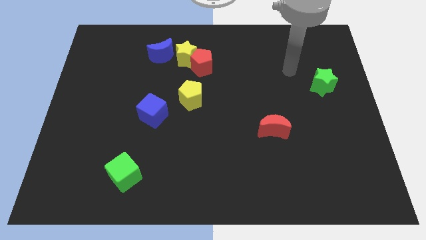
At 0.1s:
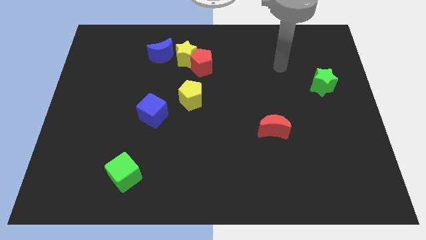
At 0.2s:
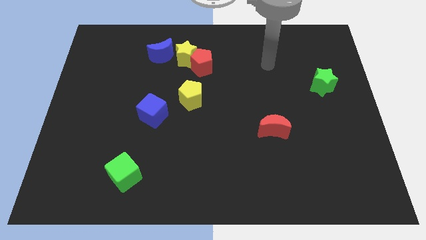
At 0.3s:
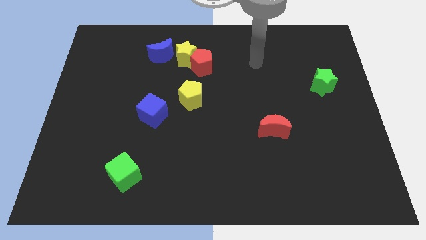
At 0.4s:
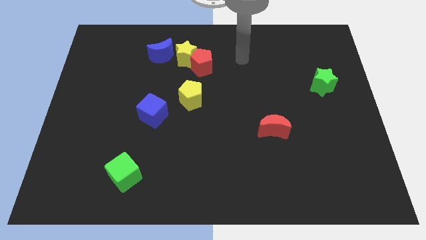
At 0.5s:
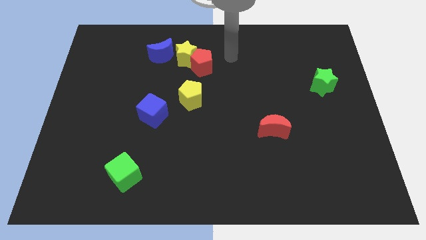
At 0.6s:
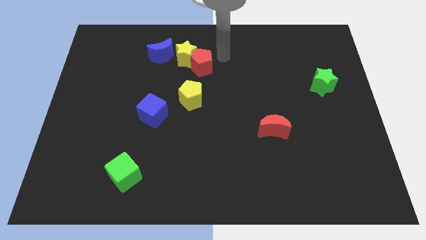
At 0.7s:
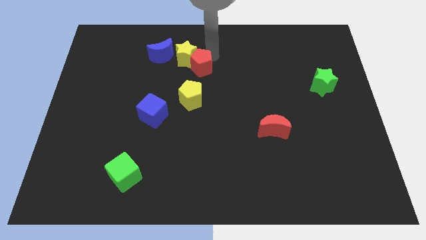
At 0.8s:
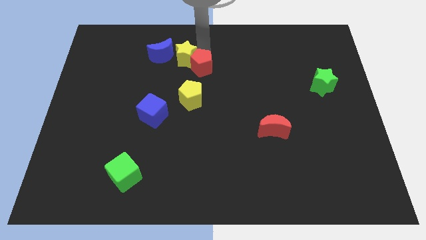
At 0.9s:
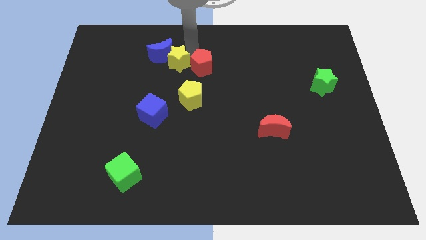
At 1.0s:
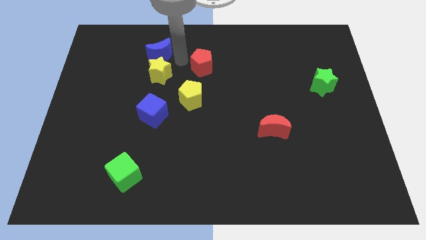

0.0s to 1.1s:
separate the red pentagon from the yellow star

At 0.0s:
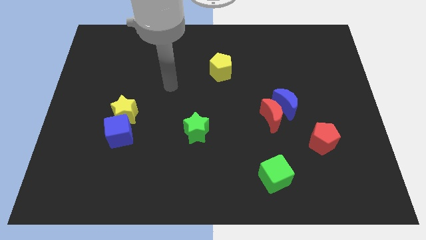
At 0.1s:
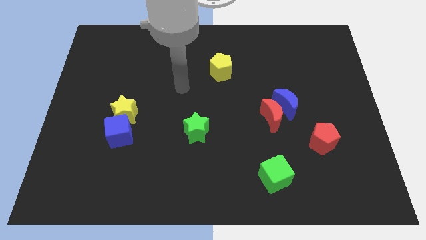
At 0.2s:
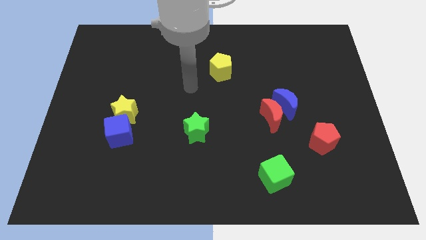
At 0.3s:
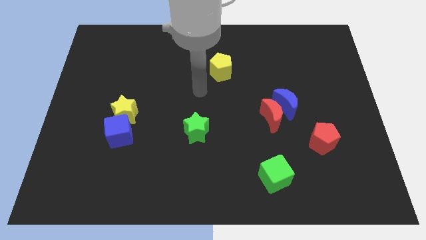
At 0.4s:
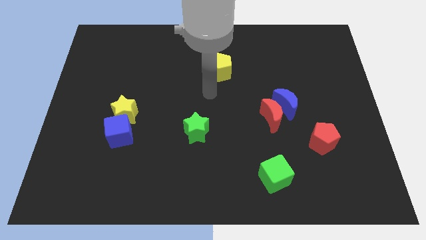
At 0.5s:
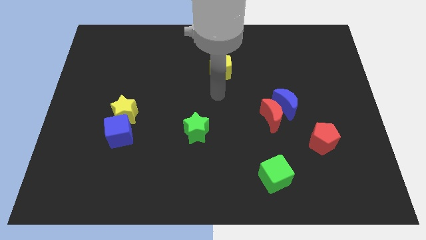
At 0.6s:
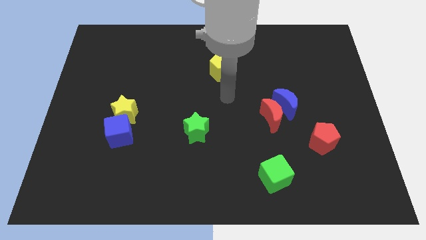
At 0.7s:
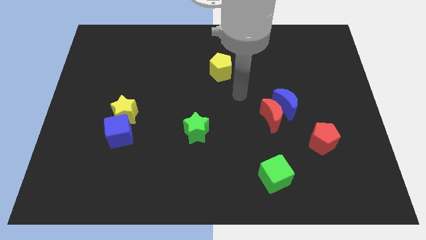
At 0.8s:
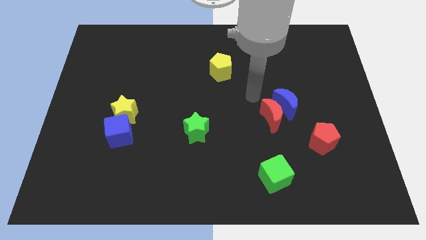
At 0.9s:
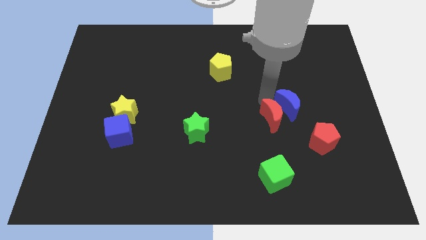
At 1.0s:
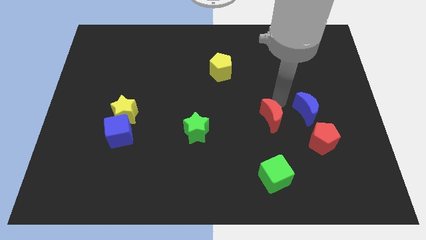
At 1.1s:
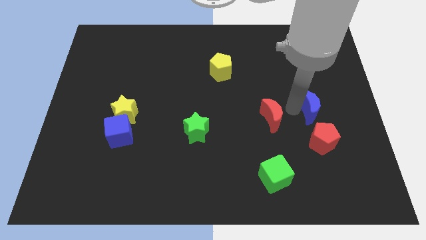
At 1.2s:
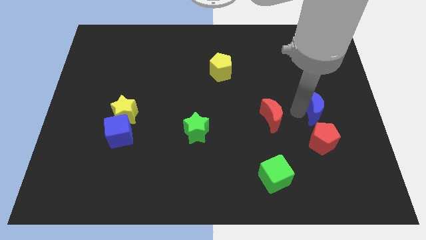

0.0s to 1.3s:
pull the red moon apart from the blue moon

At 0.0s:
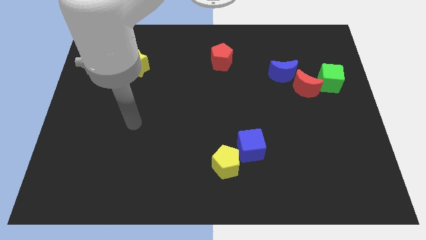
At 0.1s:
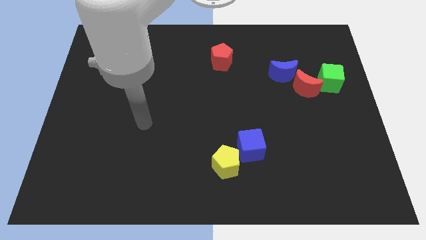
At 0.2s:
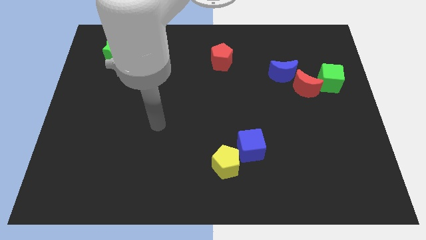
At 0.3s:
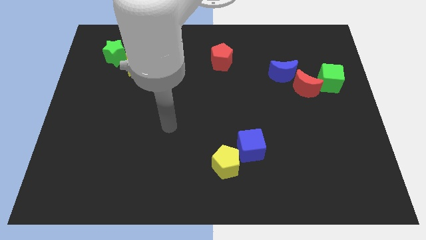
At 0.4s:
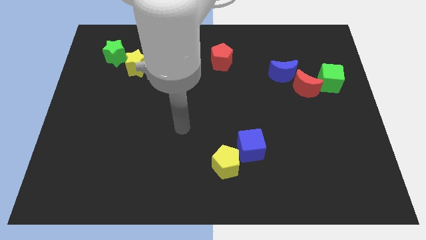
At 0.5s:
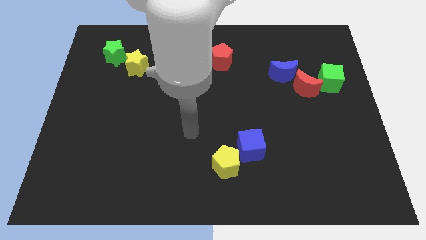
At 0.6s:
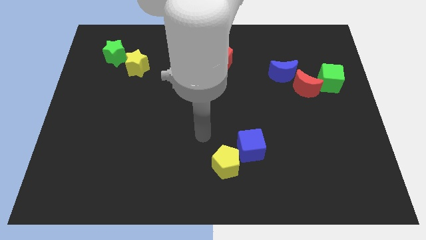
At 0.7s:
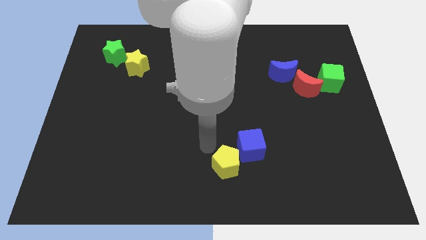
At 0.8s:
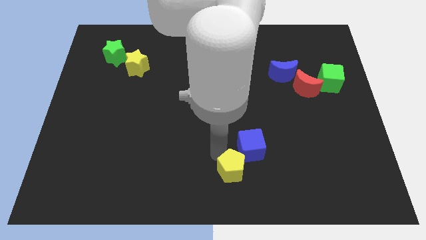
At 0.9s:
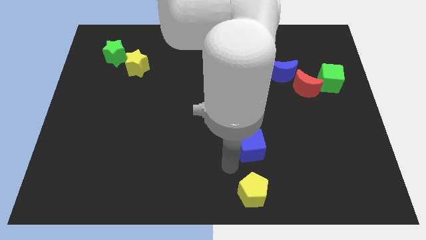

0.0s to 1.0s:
move the blue cube away from the yellow pentagon

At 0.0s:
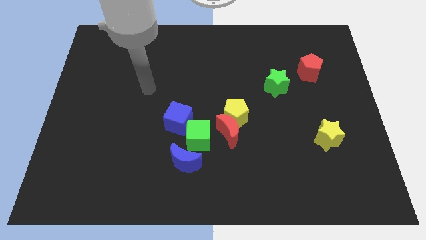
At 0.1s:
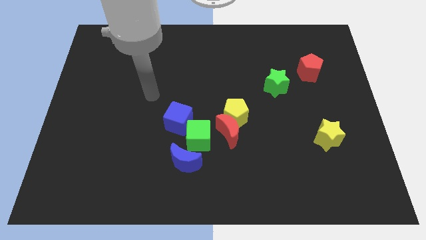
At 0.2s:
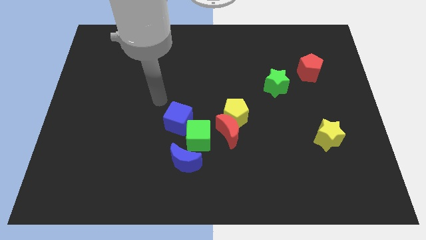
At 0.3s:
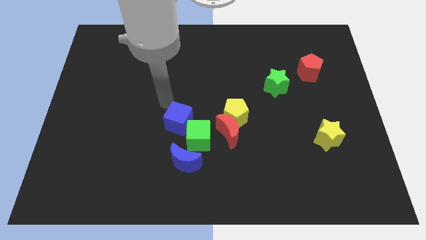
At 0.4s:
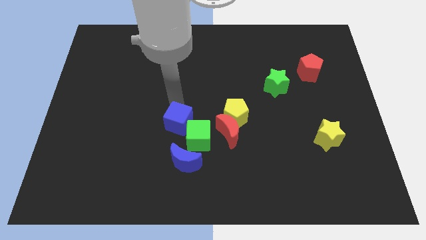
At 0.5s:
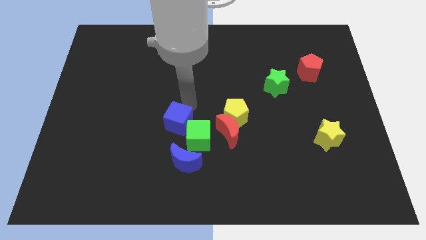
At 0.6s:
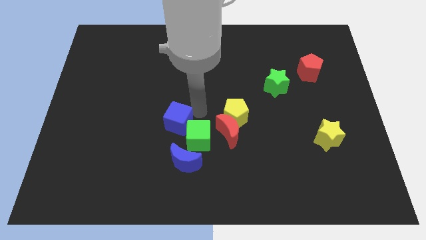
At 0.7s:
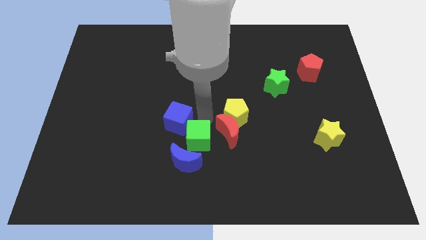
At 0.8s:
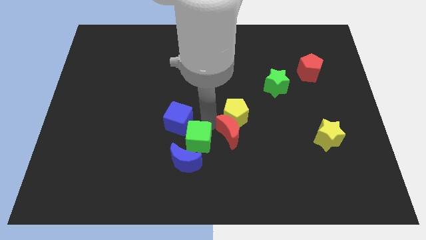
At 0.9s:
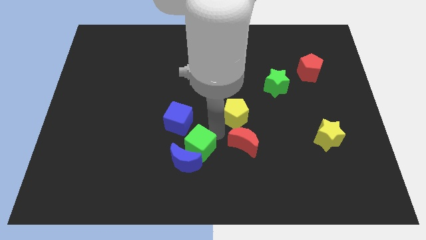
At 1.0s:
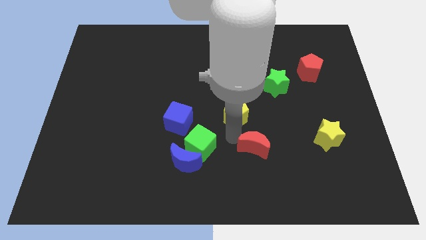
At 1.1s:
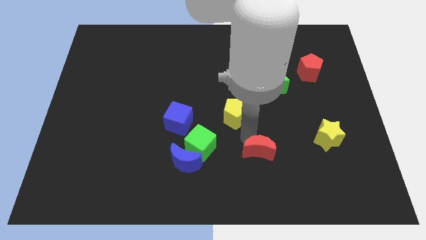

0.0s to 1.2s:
pull the yellow pentagon apart from the red moon

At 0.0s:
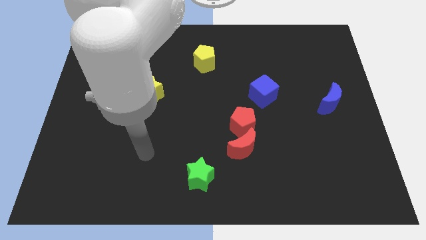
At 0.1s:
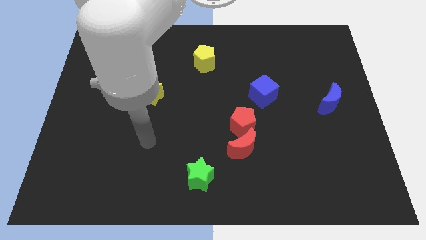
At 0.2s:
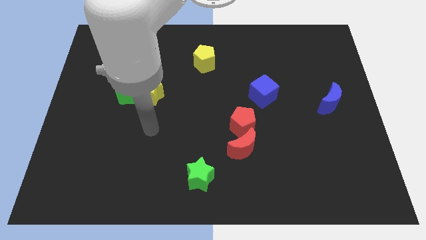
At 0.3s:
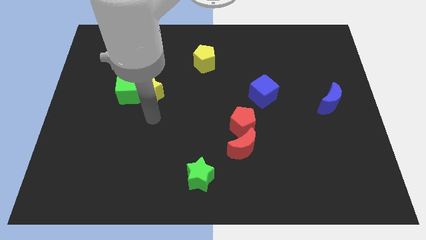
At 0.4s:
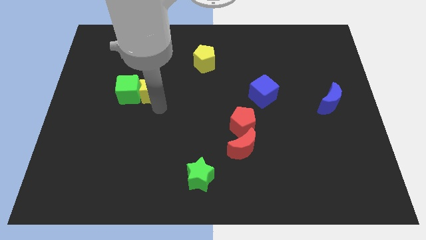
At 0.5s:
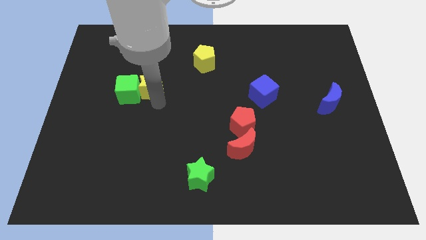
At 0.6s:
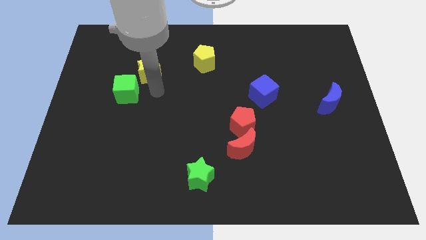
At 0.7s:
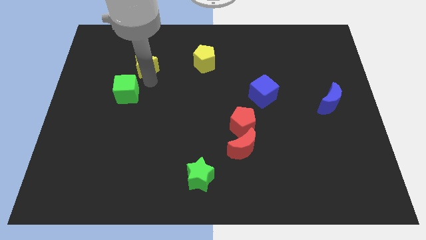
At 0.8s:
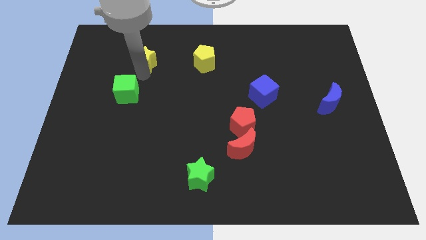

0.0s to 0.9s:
separate the green cube from the yellow star

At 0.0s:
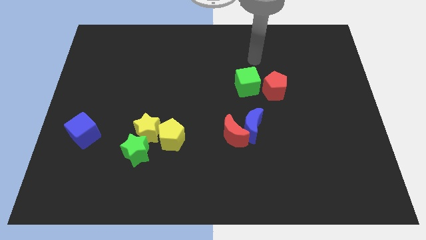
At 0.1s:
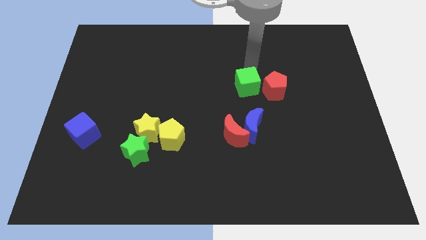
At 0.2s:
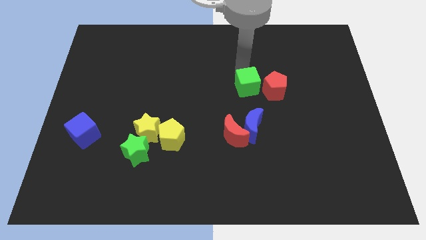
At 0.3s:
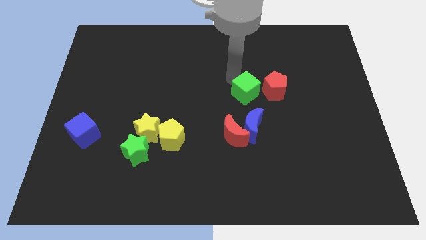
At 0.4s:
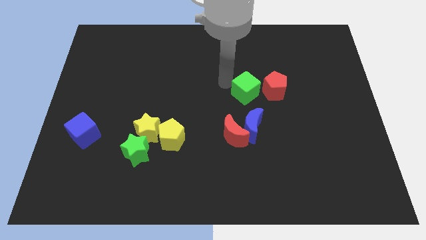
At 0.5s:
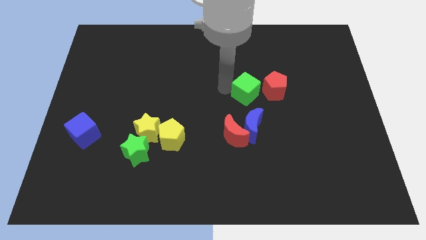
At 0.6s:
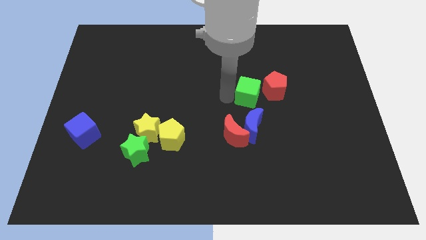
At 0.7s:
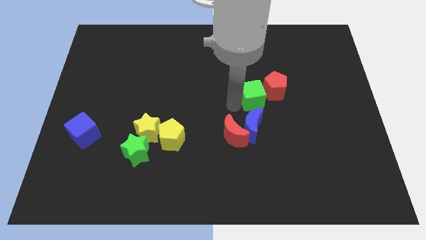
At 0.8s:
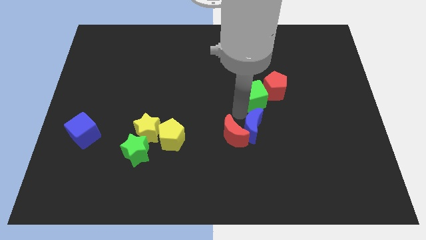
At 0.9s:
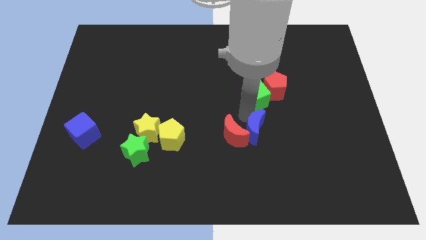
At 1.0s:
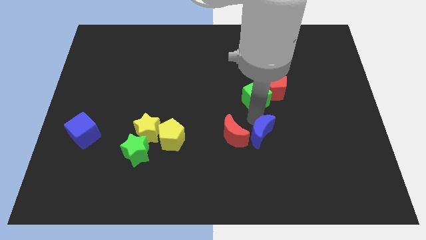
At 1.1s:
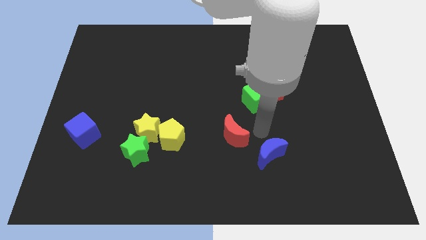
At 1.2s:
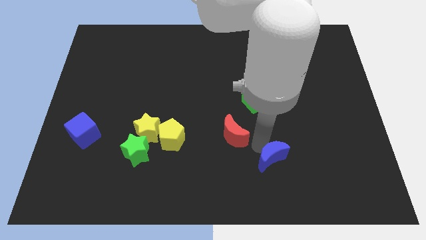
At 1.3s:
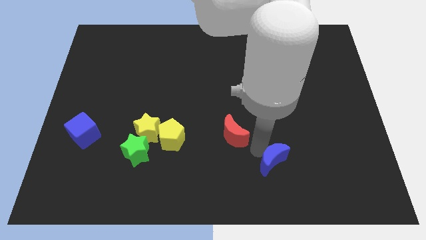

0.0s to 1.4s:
move the red moon away from the blue moon

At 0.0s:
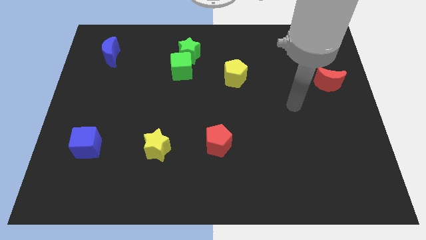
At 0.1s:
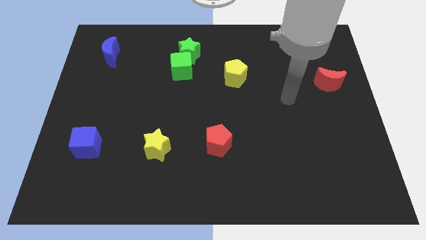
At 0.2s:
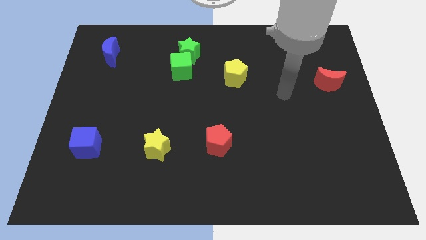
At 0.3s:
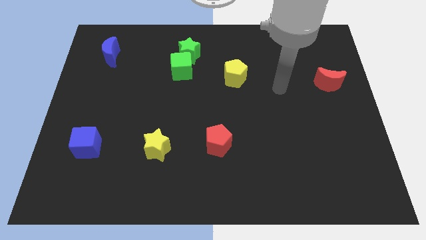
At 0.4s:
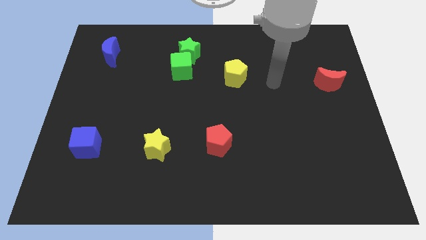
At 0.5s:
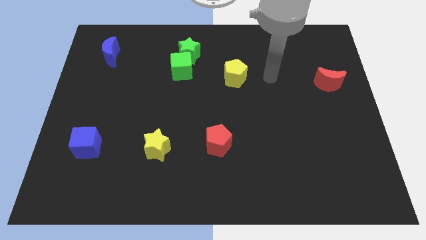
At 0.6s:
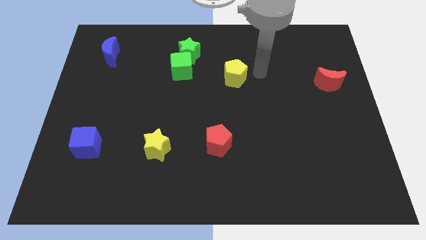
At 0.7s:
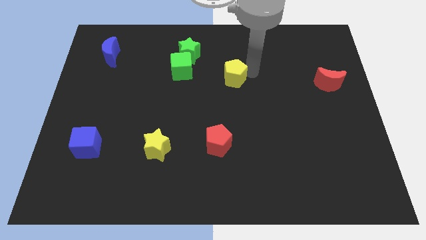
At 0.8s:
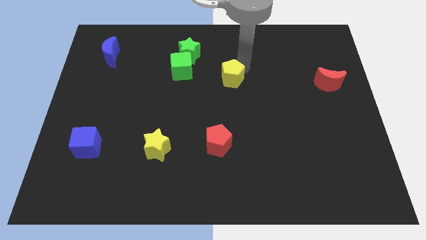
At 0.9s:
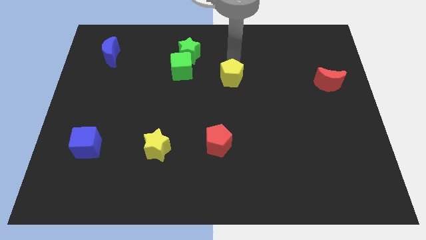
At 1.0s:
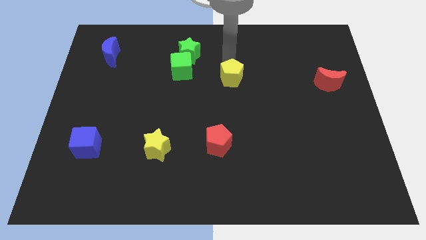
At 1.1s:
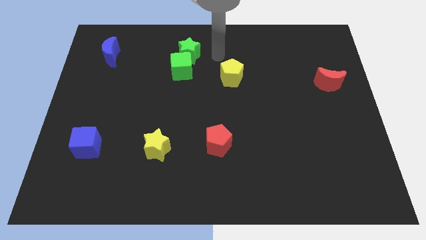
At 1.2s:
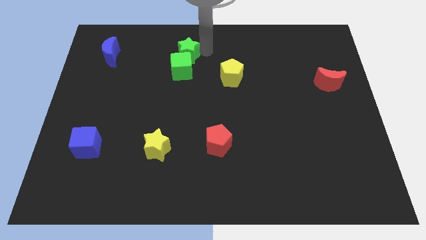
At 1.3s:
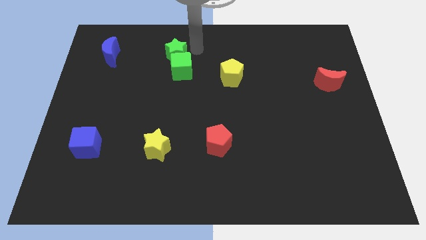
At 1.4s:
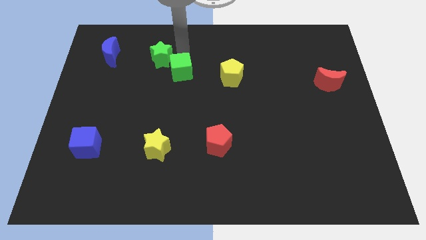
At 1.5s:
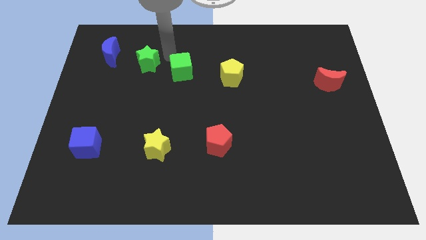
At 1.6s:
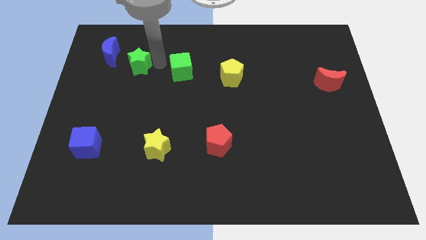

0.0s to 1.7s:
pull the green cube apart from the green star

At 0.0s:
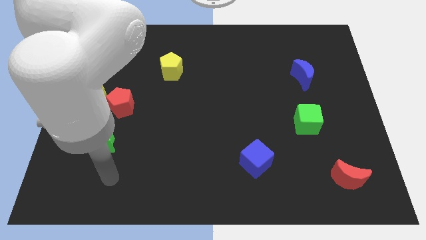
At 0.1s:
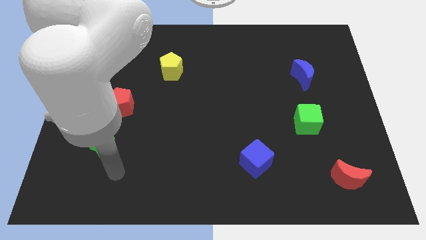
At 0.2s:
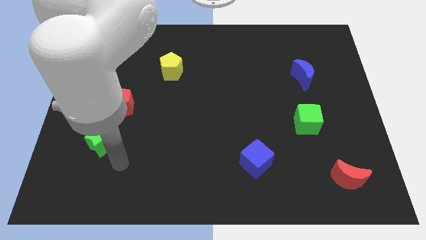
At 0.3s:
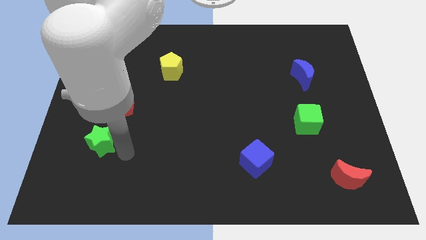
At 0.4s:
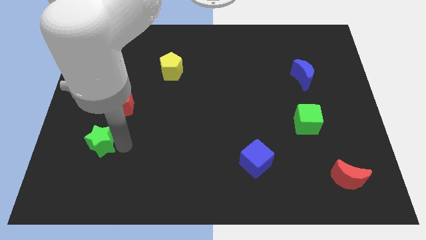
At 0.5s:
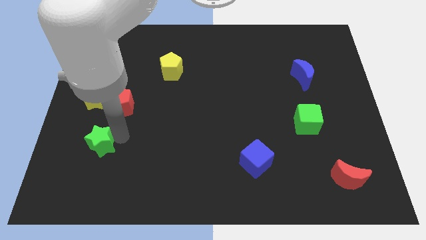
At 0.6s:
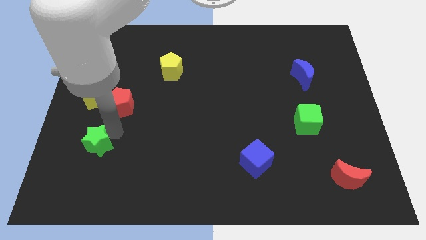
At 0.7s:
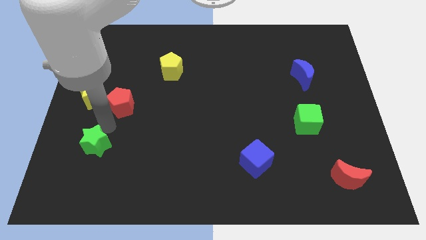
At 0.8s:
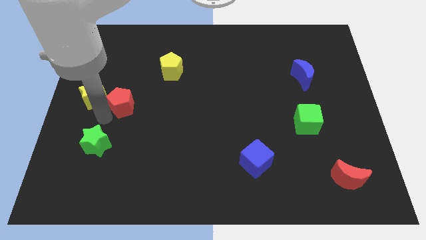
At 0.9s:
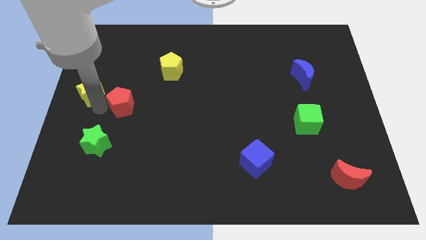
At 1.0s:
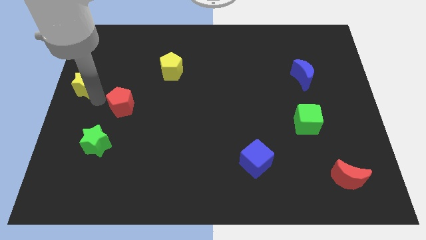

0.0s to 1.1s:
pull the red pentagon apart from the yellow star
